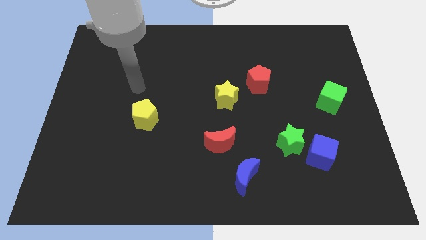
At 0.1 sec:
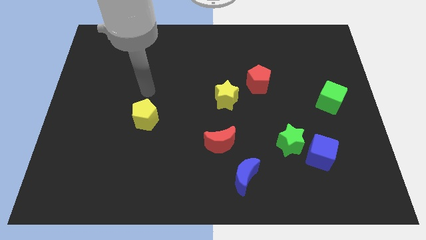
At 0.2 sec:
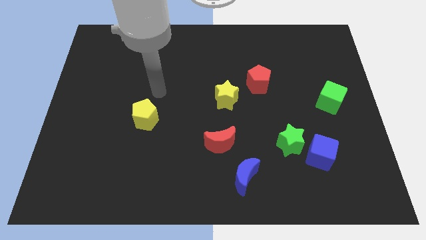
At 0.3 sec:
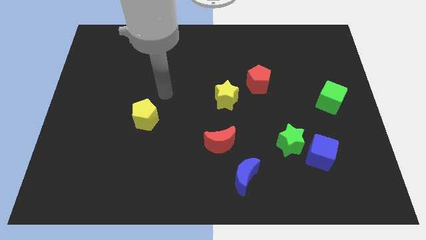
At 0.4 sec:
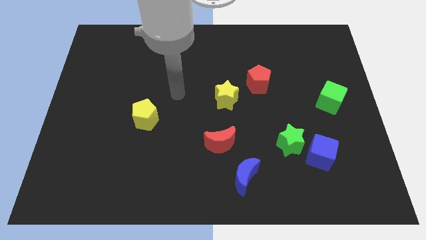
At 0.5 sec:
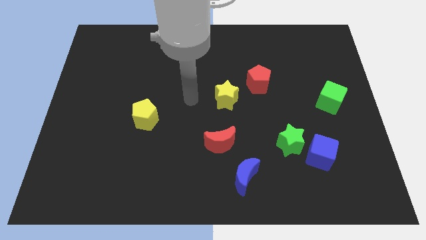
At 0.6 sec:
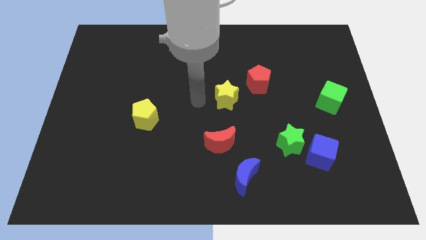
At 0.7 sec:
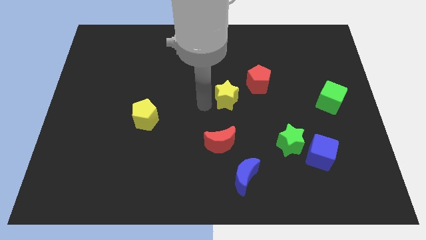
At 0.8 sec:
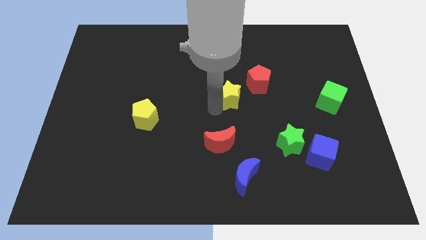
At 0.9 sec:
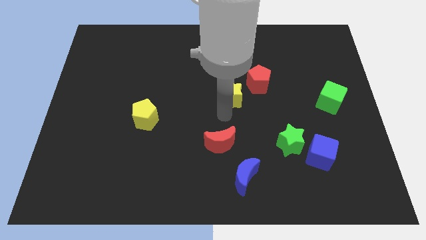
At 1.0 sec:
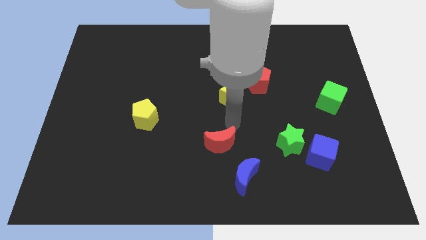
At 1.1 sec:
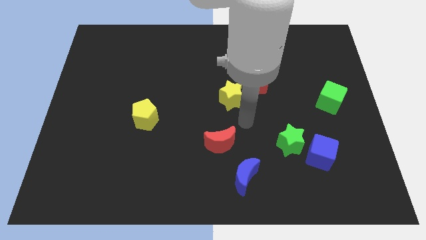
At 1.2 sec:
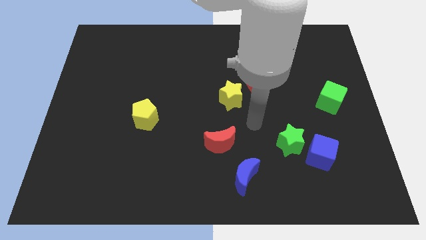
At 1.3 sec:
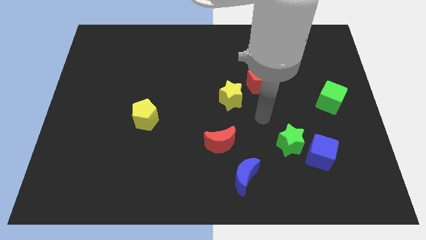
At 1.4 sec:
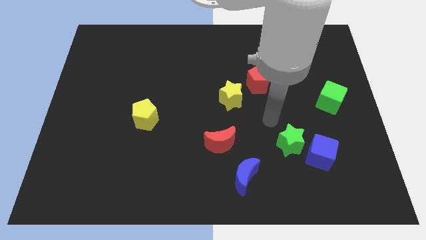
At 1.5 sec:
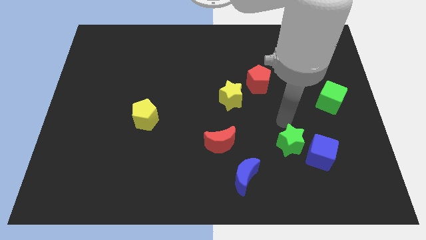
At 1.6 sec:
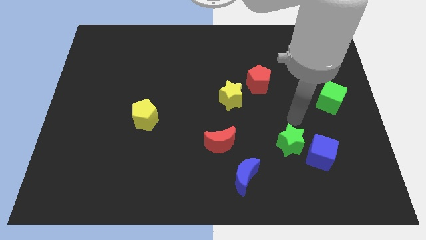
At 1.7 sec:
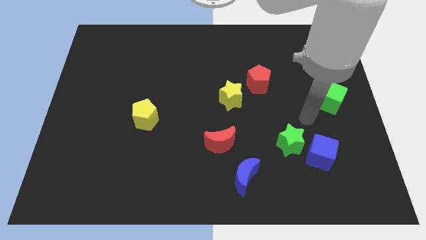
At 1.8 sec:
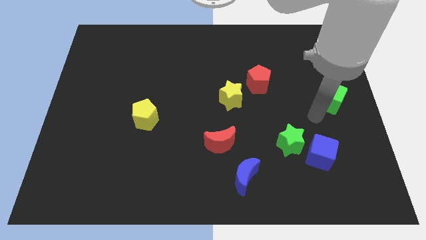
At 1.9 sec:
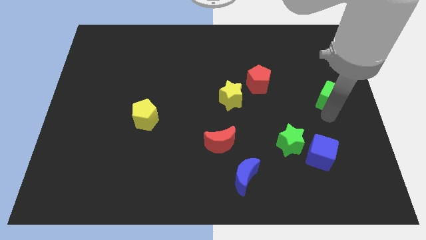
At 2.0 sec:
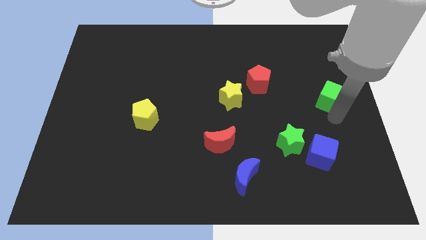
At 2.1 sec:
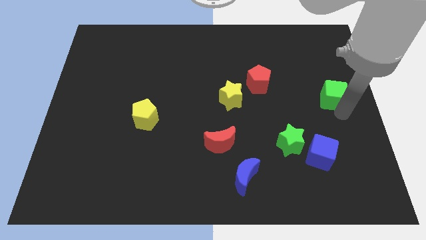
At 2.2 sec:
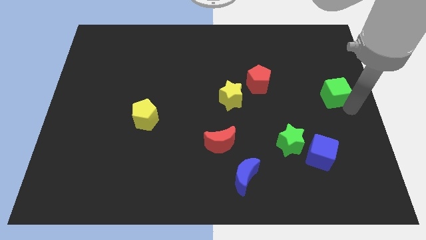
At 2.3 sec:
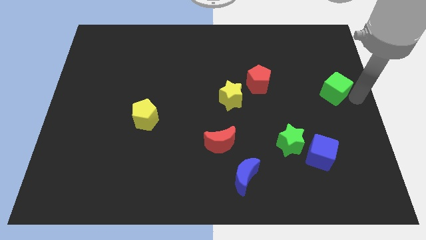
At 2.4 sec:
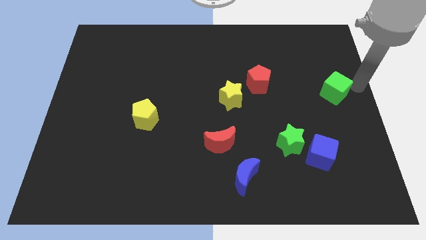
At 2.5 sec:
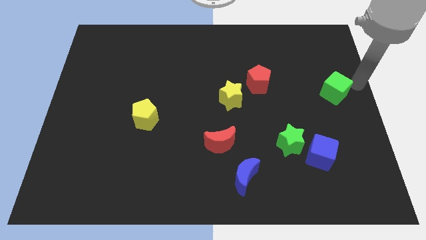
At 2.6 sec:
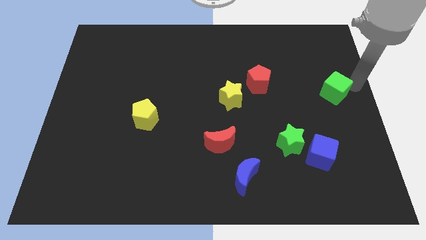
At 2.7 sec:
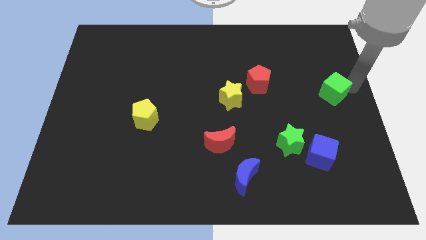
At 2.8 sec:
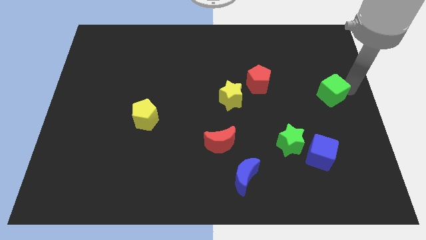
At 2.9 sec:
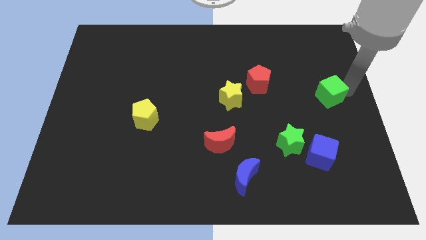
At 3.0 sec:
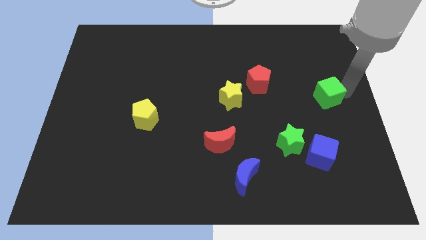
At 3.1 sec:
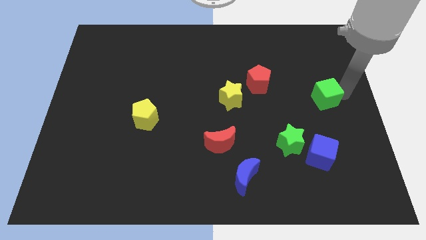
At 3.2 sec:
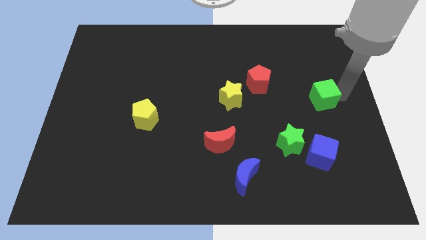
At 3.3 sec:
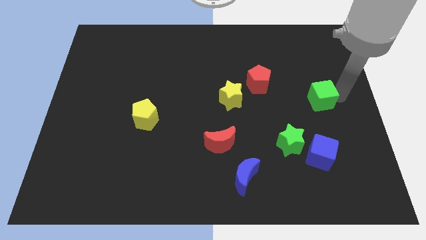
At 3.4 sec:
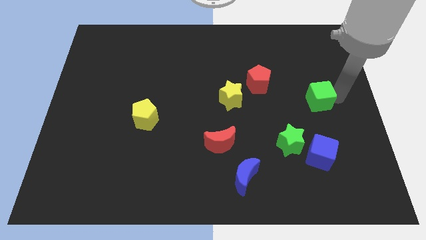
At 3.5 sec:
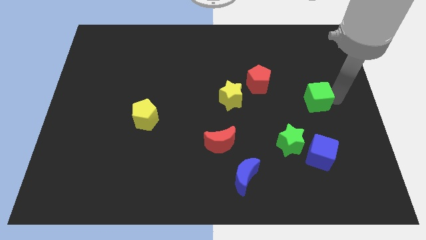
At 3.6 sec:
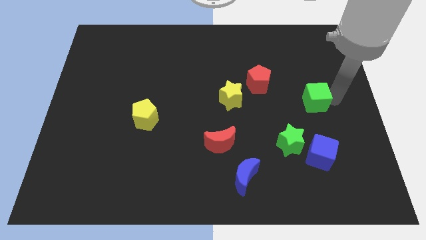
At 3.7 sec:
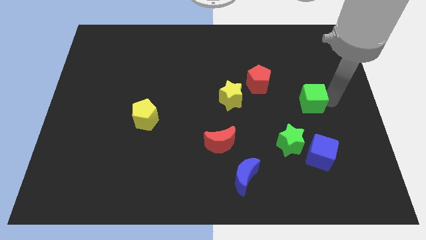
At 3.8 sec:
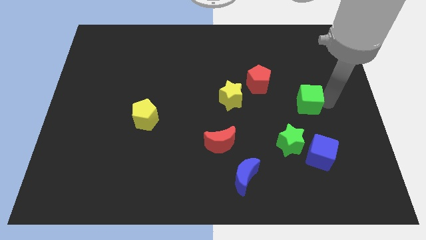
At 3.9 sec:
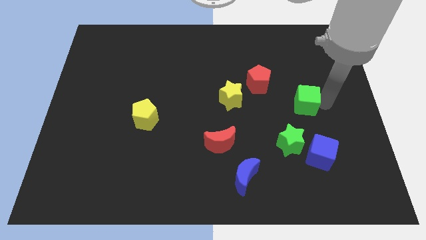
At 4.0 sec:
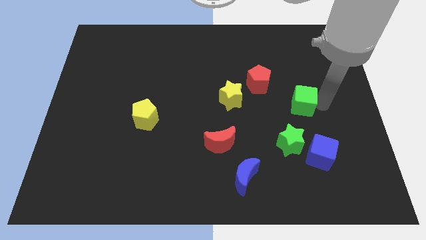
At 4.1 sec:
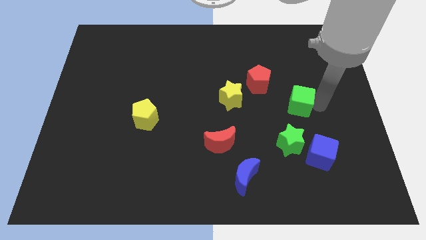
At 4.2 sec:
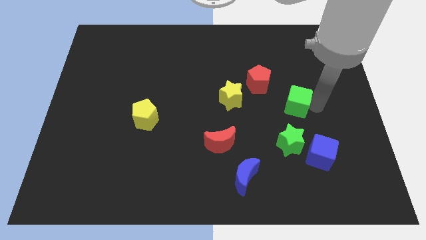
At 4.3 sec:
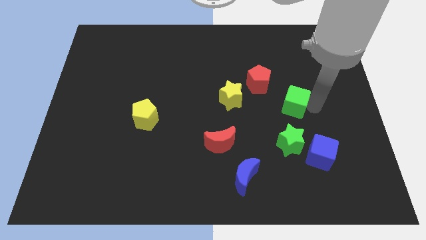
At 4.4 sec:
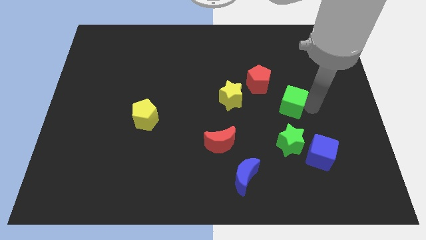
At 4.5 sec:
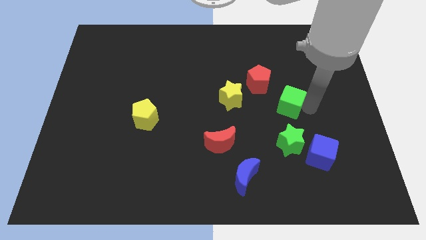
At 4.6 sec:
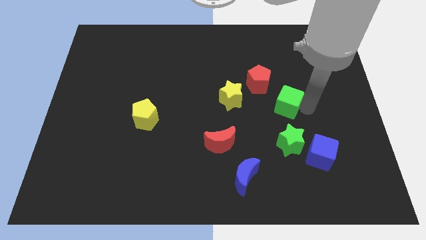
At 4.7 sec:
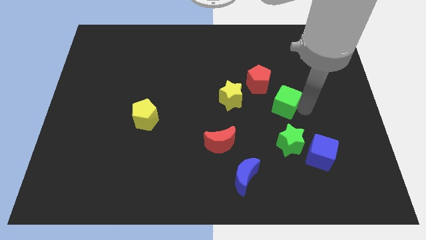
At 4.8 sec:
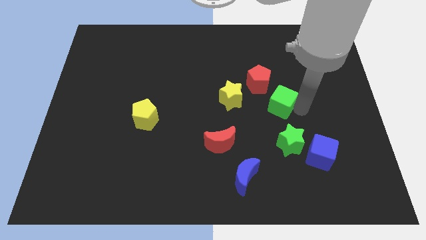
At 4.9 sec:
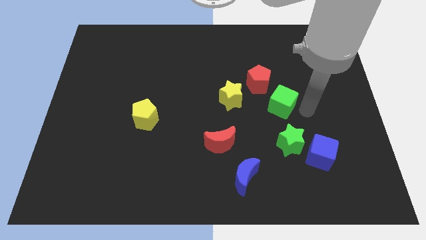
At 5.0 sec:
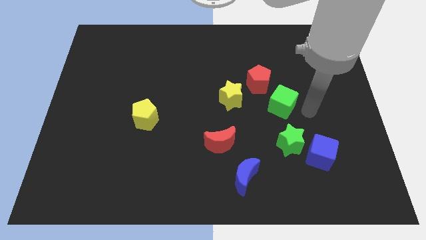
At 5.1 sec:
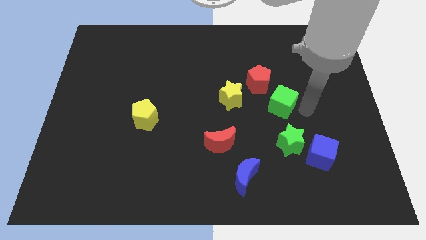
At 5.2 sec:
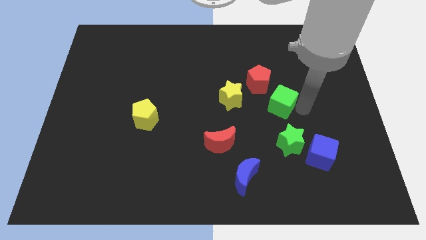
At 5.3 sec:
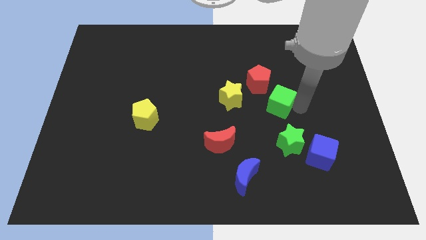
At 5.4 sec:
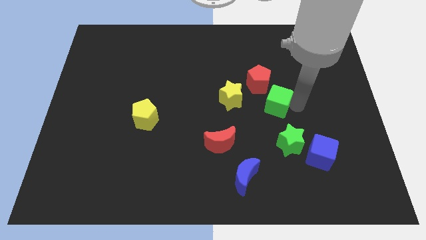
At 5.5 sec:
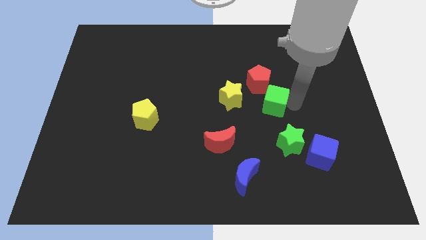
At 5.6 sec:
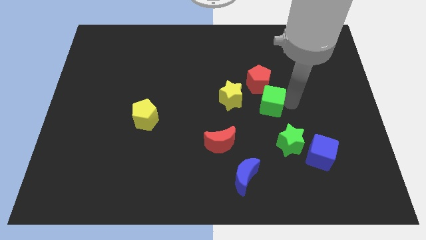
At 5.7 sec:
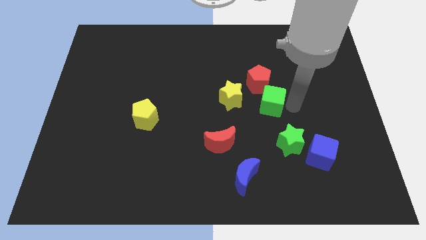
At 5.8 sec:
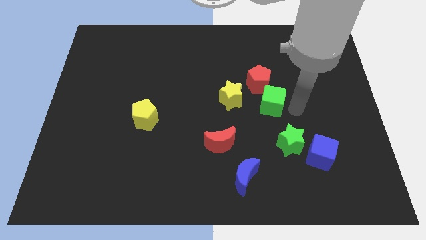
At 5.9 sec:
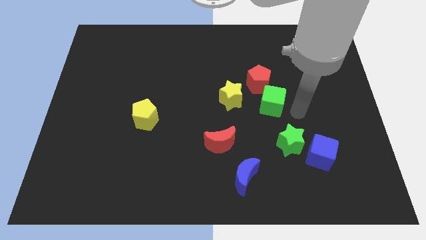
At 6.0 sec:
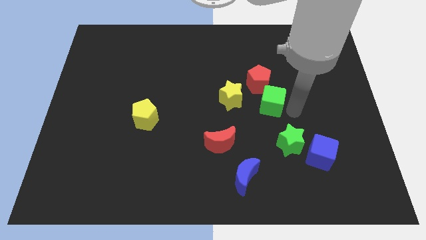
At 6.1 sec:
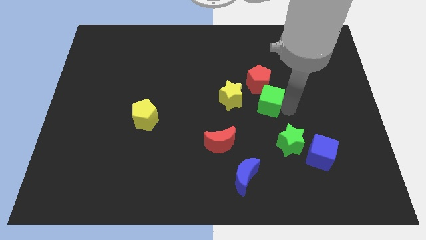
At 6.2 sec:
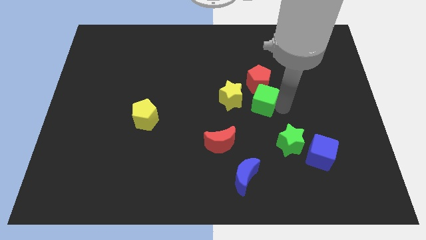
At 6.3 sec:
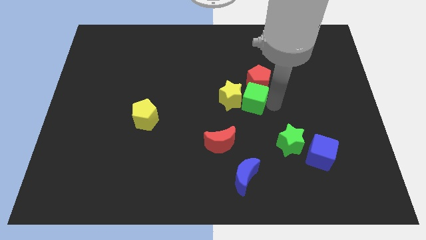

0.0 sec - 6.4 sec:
push the green cube to the yellow star

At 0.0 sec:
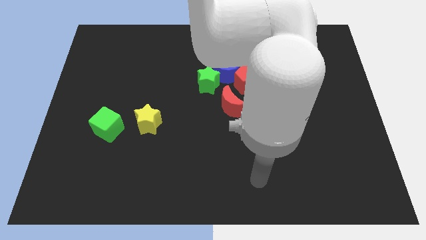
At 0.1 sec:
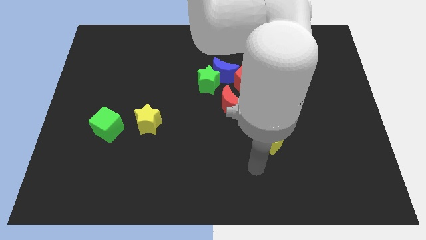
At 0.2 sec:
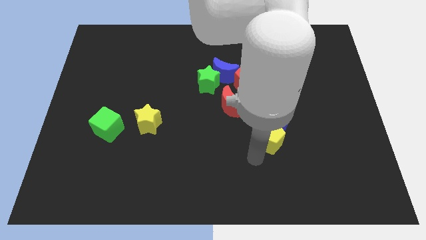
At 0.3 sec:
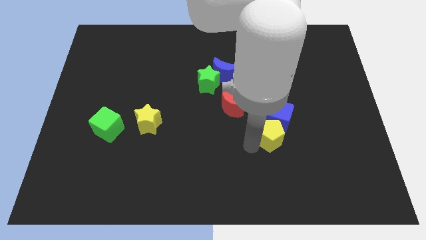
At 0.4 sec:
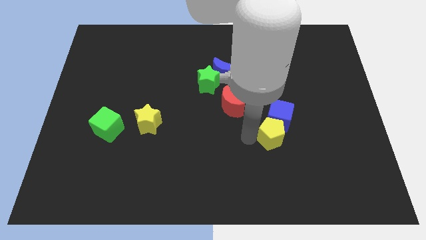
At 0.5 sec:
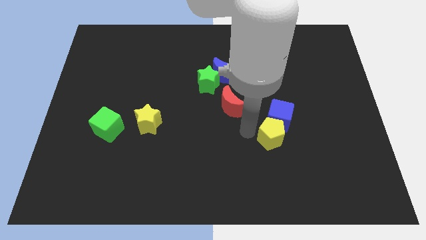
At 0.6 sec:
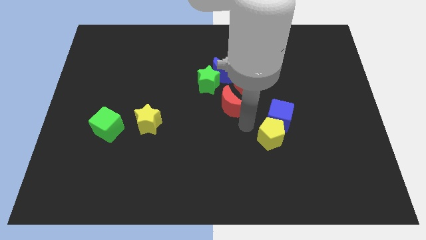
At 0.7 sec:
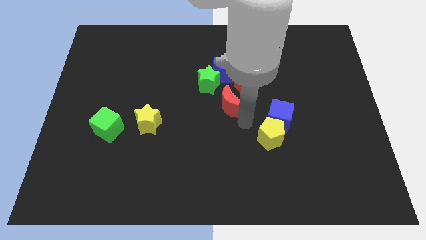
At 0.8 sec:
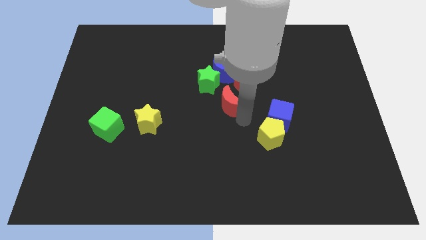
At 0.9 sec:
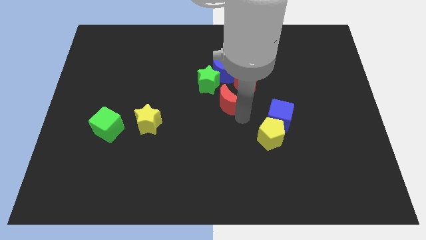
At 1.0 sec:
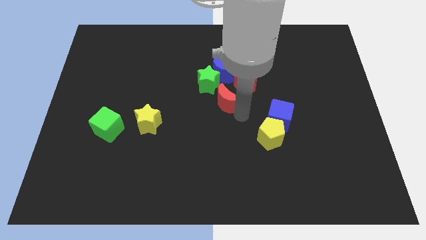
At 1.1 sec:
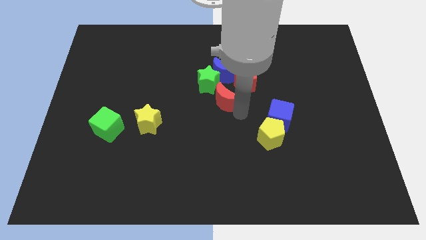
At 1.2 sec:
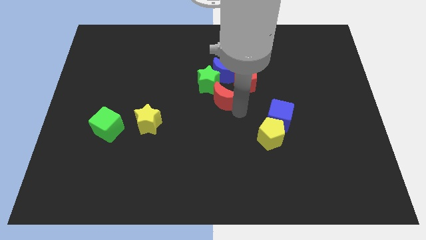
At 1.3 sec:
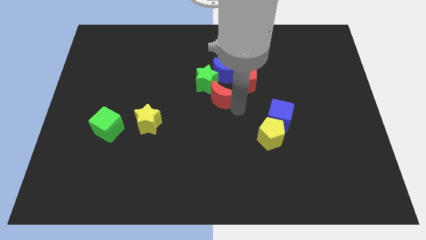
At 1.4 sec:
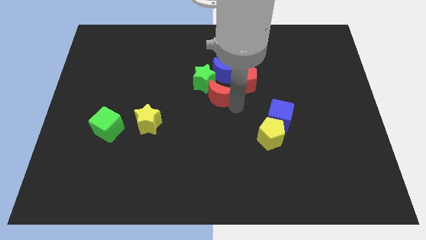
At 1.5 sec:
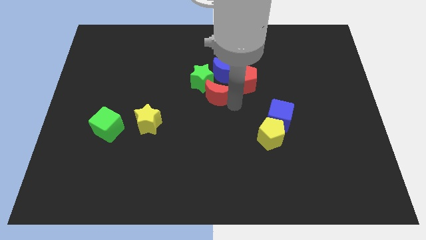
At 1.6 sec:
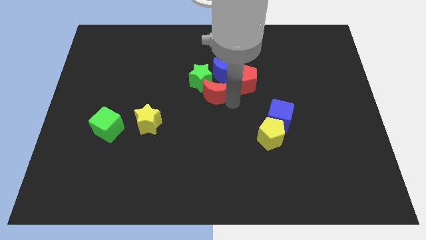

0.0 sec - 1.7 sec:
slide the red moon next to the green star
